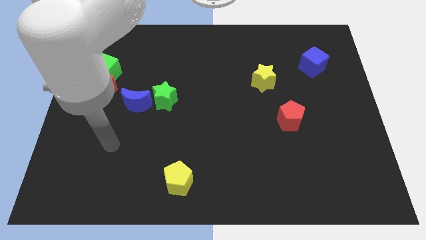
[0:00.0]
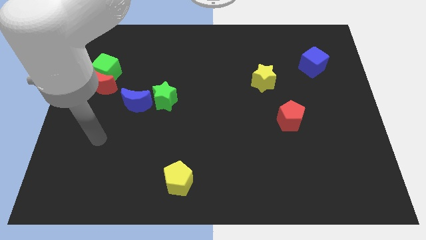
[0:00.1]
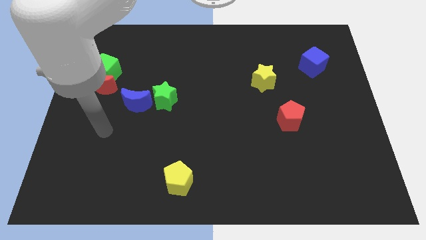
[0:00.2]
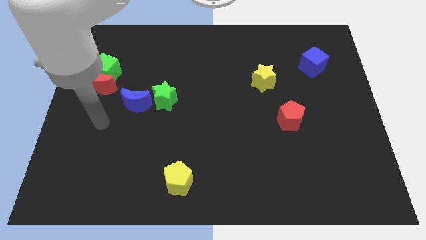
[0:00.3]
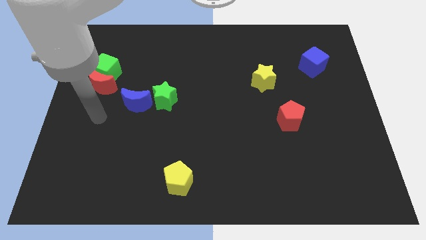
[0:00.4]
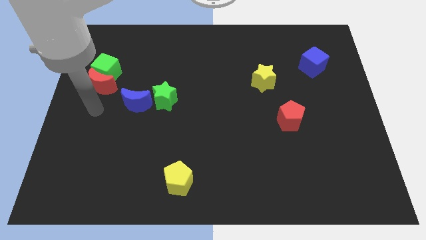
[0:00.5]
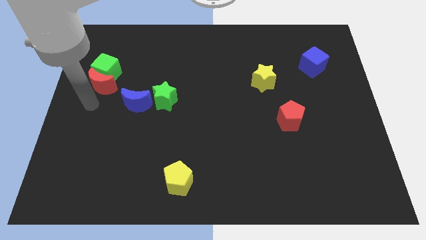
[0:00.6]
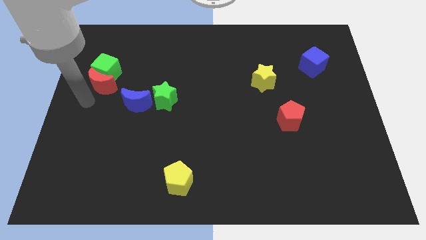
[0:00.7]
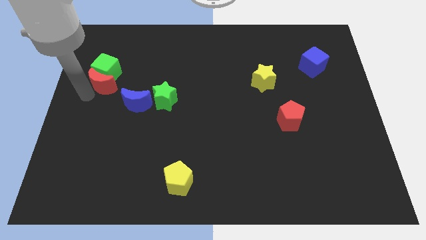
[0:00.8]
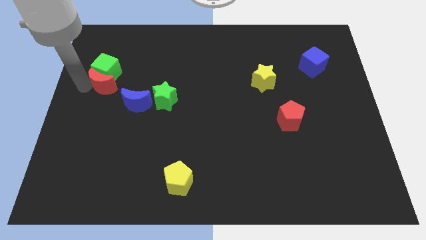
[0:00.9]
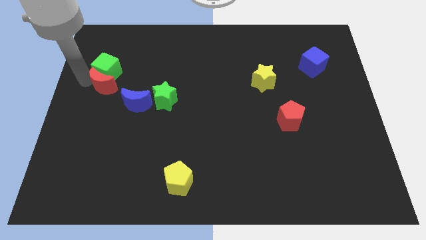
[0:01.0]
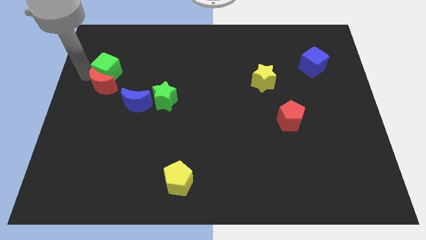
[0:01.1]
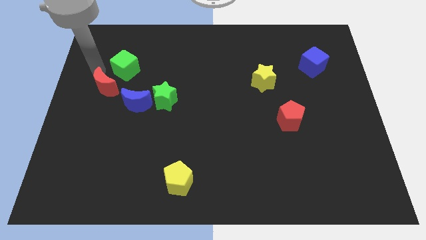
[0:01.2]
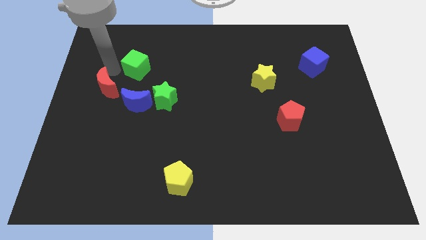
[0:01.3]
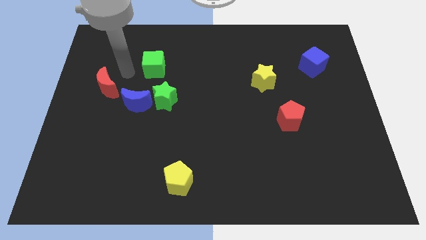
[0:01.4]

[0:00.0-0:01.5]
pull the red moon apart from the green cube

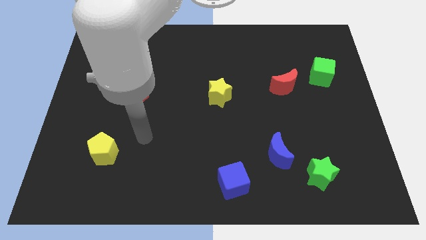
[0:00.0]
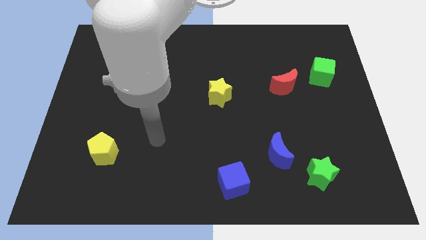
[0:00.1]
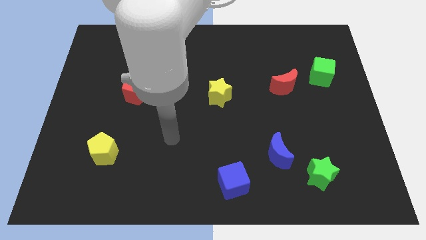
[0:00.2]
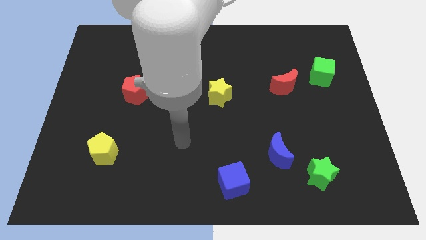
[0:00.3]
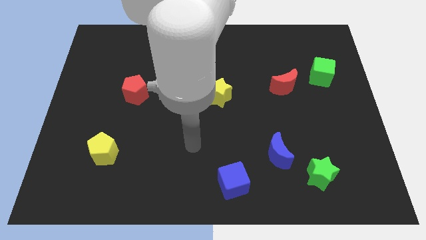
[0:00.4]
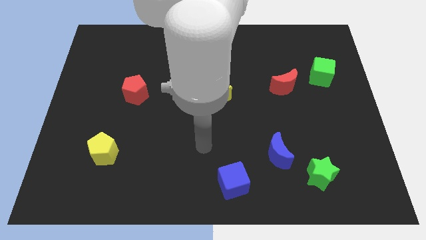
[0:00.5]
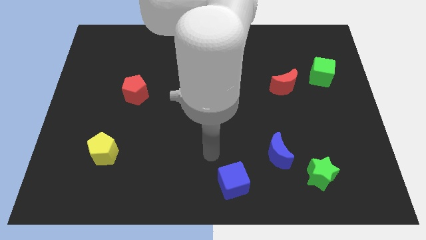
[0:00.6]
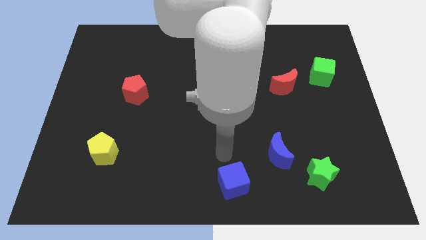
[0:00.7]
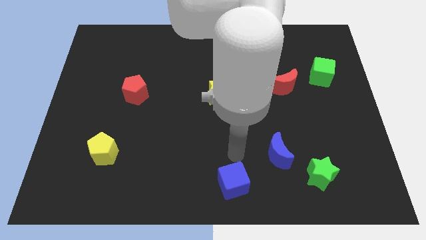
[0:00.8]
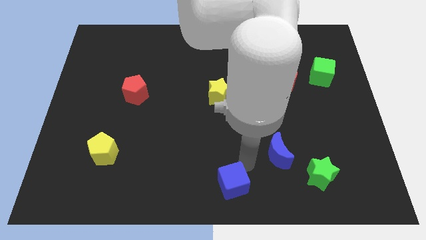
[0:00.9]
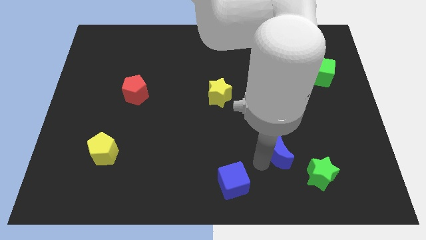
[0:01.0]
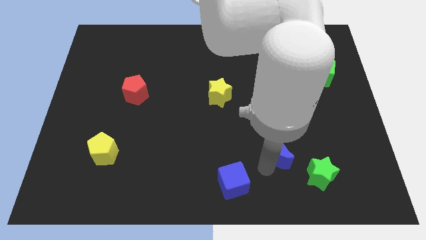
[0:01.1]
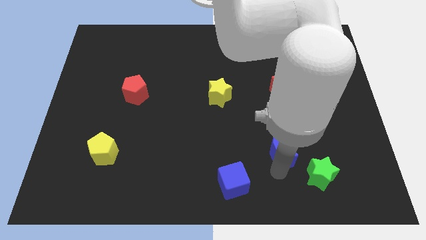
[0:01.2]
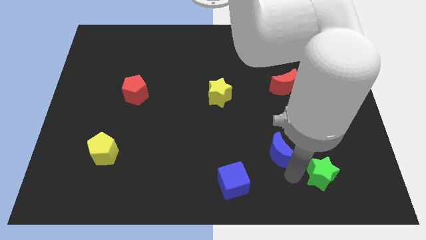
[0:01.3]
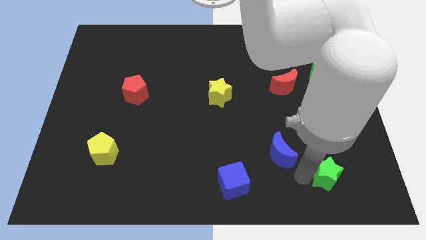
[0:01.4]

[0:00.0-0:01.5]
pull the blue moon apart from the green star

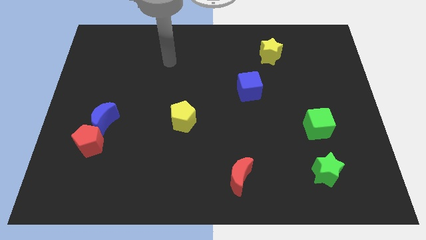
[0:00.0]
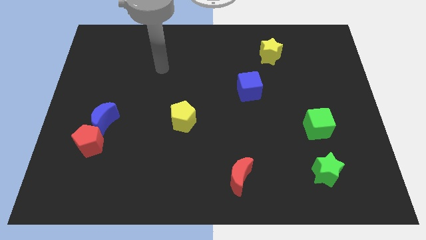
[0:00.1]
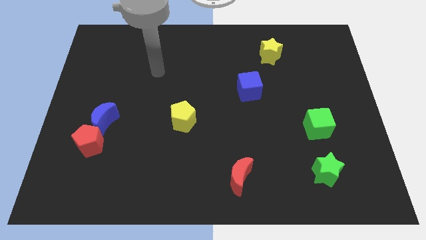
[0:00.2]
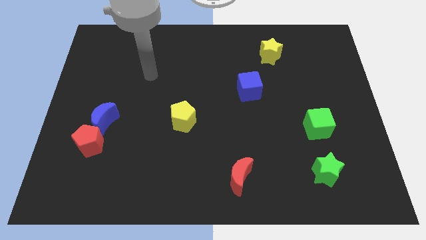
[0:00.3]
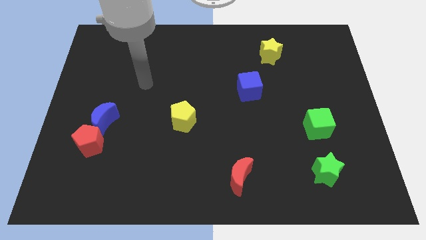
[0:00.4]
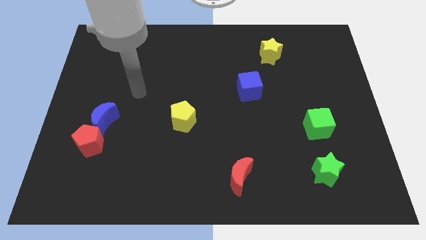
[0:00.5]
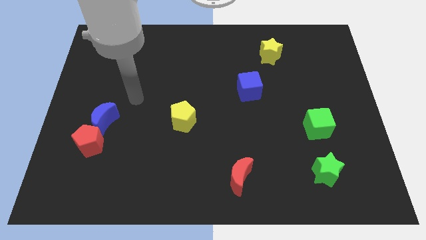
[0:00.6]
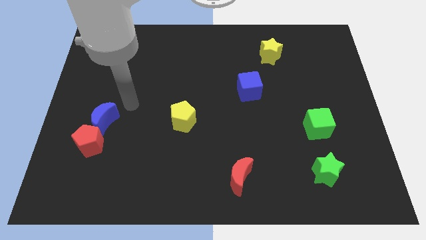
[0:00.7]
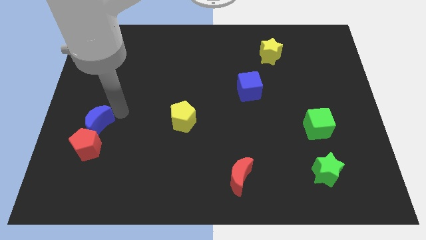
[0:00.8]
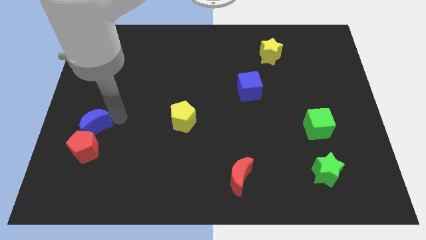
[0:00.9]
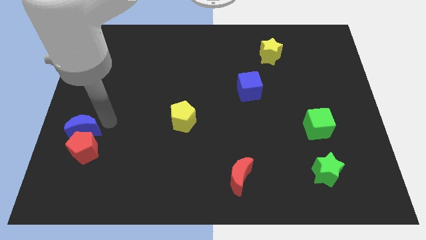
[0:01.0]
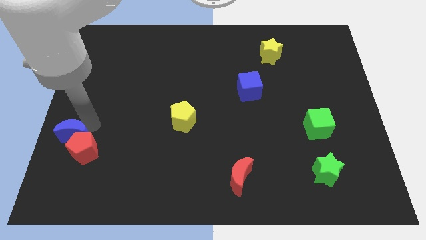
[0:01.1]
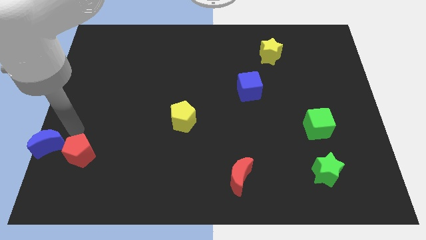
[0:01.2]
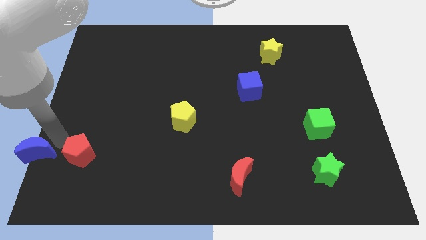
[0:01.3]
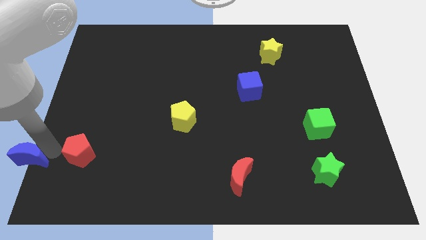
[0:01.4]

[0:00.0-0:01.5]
move the red pentagon away from the blue moon

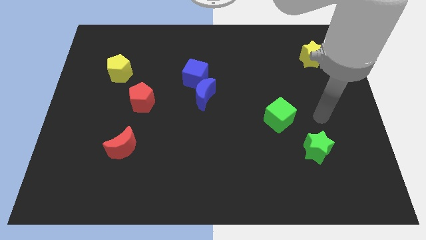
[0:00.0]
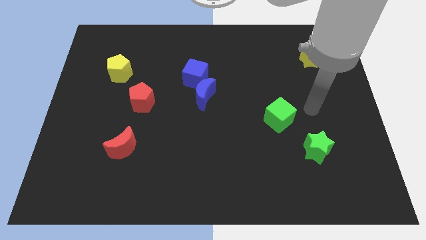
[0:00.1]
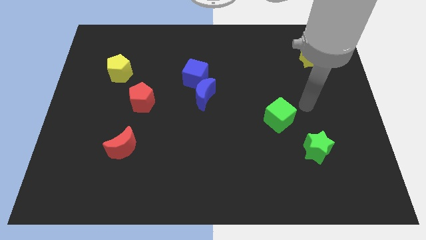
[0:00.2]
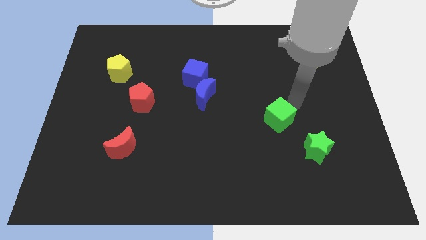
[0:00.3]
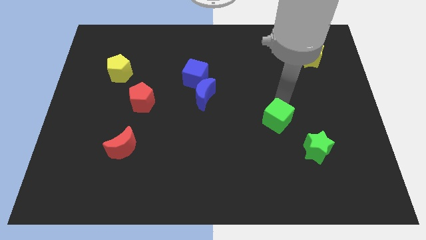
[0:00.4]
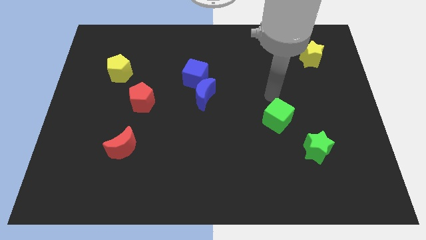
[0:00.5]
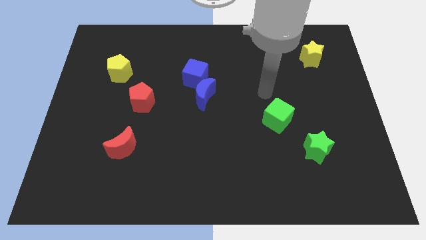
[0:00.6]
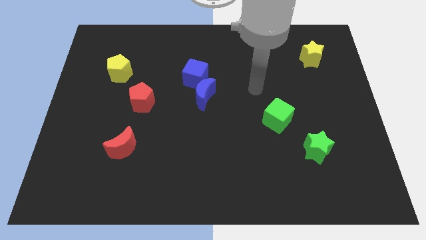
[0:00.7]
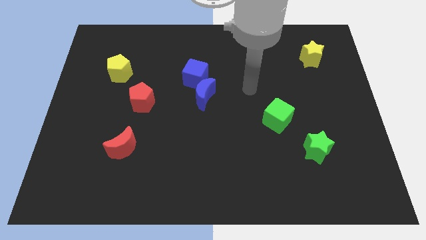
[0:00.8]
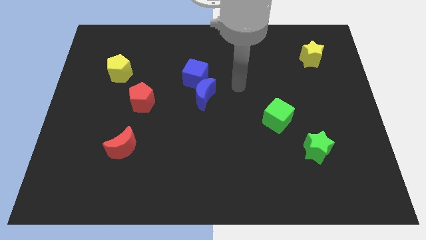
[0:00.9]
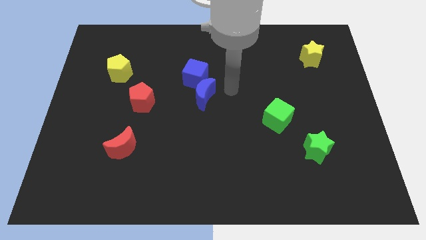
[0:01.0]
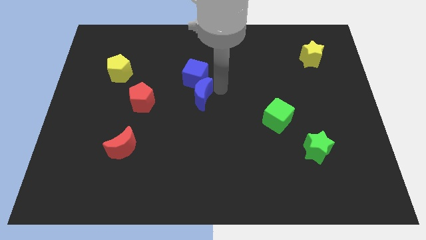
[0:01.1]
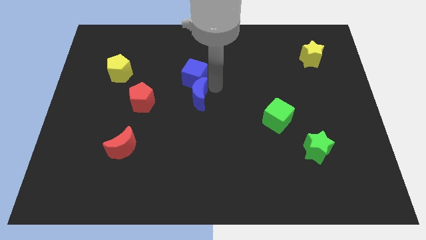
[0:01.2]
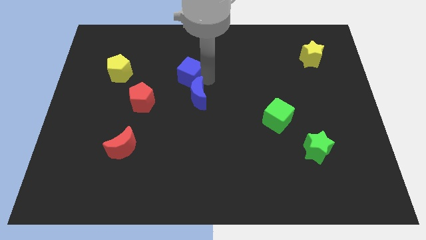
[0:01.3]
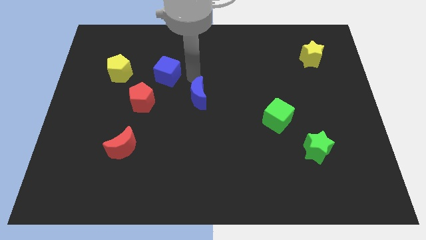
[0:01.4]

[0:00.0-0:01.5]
pull the blue moon apart from the blue cube

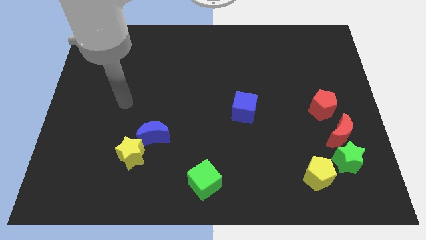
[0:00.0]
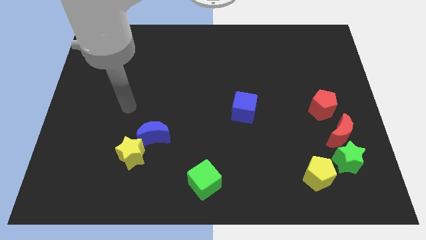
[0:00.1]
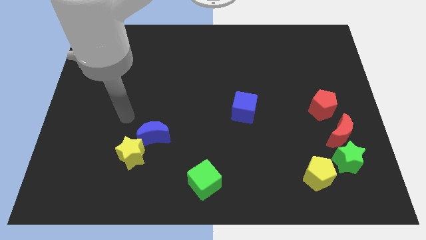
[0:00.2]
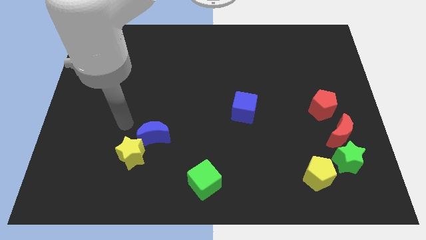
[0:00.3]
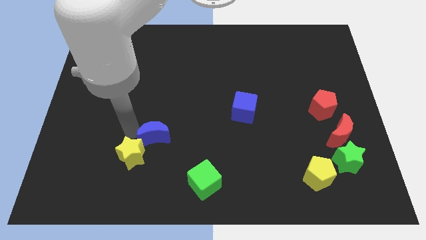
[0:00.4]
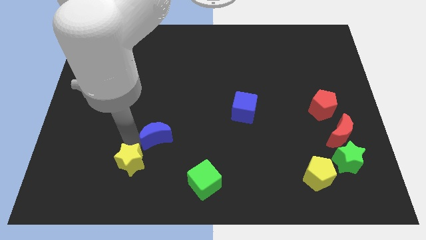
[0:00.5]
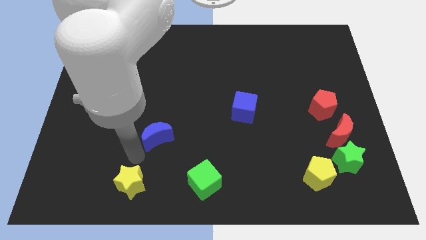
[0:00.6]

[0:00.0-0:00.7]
pull the blue moon apart from the yellow star

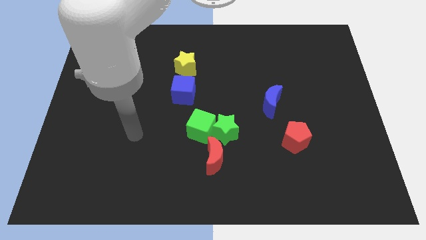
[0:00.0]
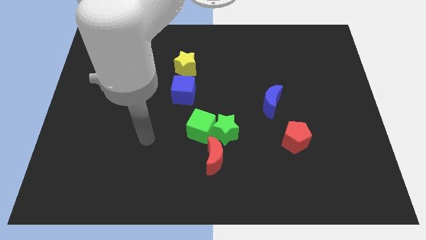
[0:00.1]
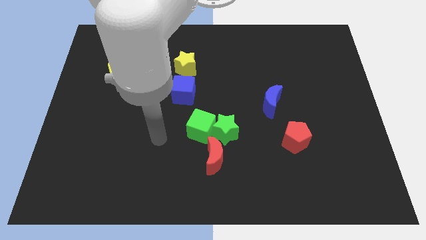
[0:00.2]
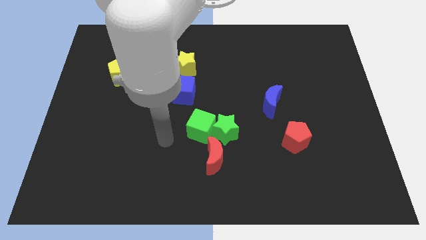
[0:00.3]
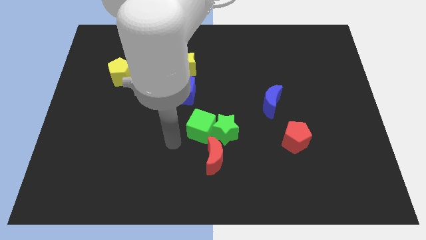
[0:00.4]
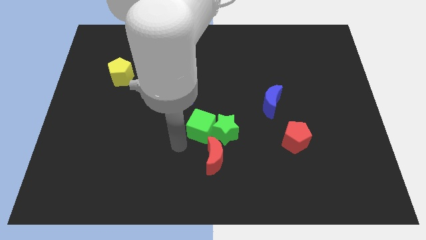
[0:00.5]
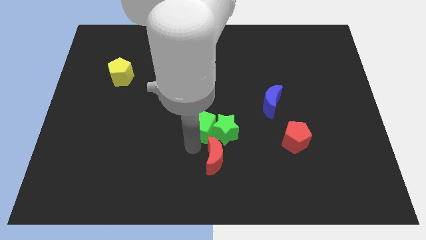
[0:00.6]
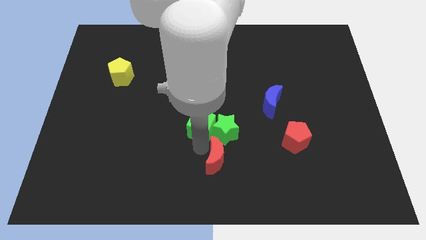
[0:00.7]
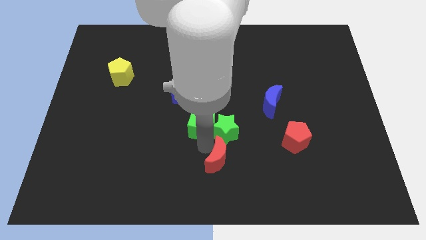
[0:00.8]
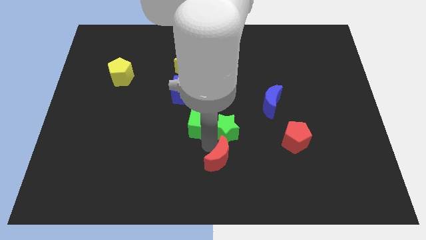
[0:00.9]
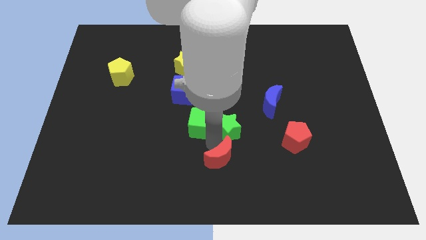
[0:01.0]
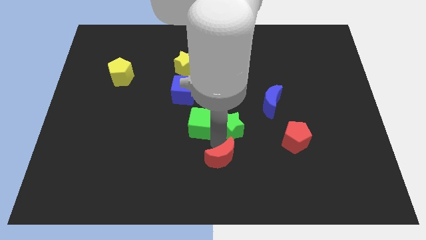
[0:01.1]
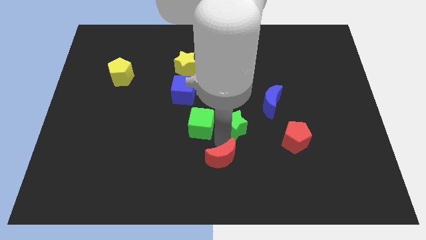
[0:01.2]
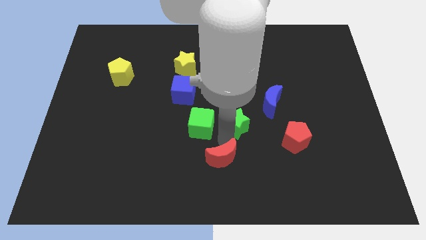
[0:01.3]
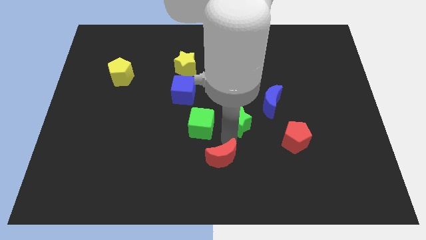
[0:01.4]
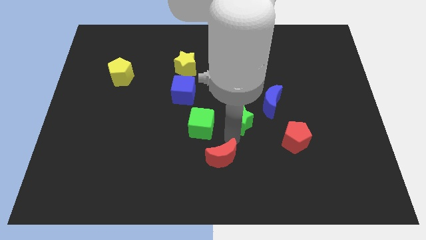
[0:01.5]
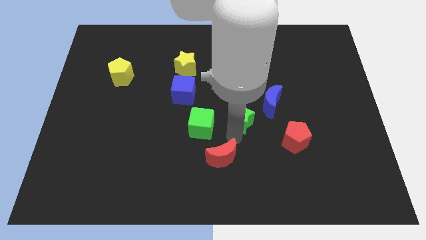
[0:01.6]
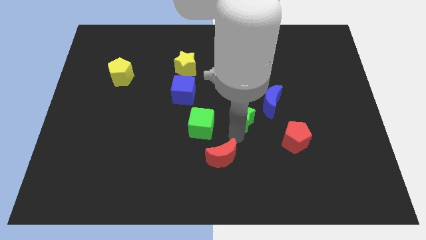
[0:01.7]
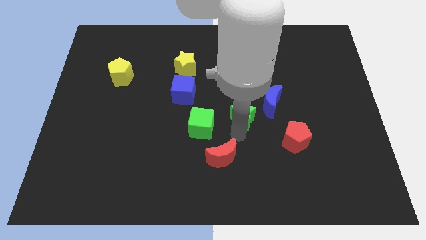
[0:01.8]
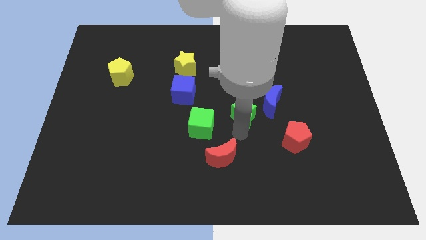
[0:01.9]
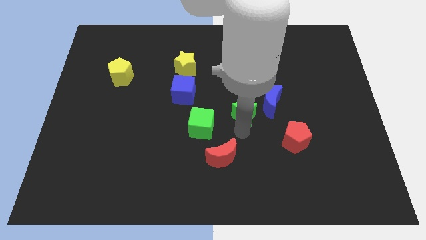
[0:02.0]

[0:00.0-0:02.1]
separate the green star from the green cube and red moon

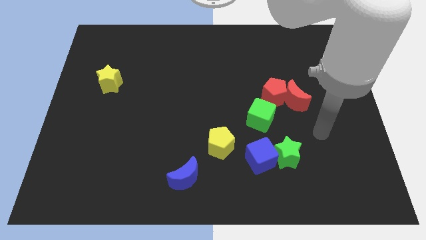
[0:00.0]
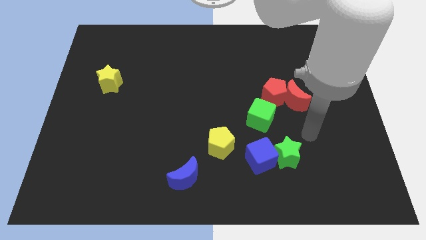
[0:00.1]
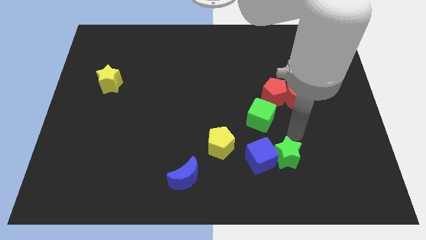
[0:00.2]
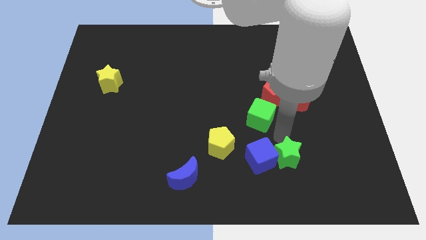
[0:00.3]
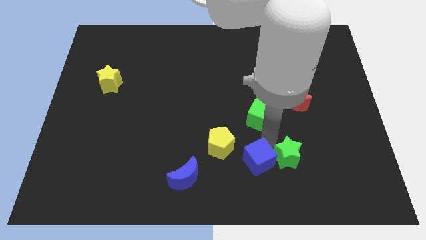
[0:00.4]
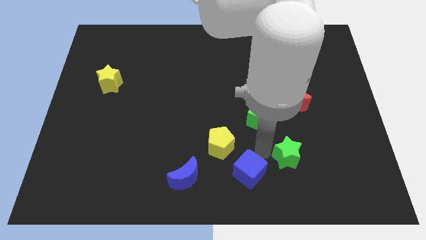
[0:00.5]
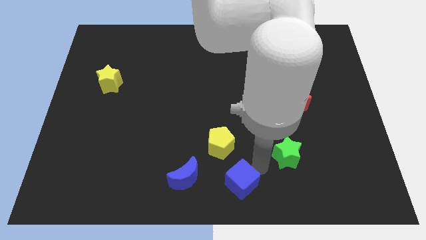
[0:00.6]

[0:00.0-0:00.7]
move the green star away from the blue cube

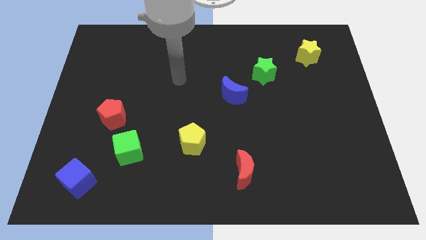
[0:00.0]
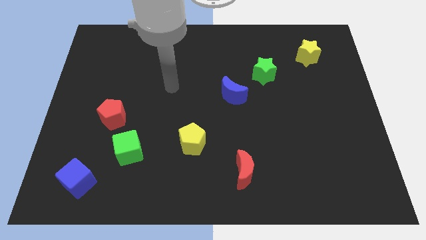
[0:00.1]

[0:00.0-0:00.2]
separate the red pentagon from the green cube
